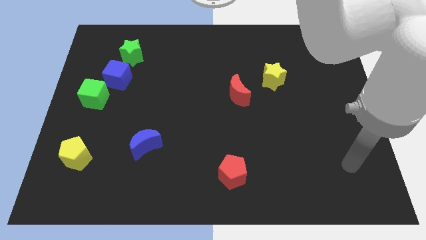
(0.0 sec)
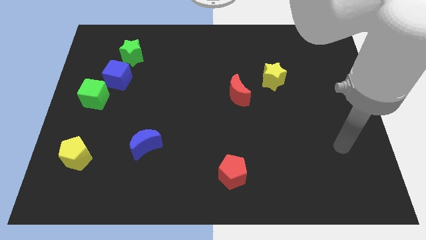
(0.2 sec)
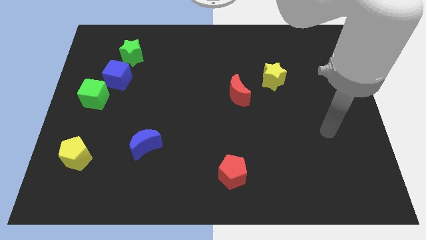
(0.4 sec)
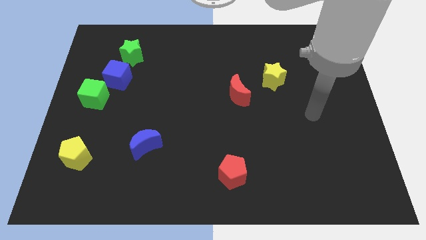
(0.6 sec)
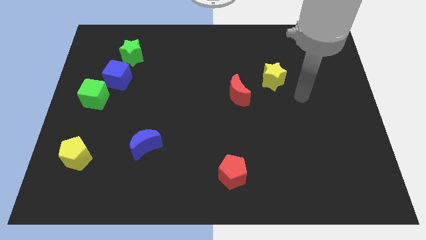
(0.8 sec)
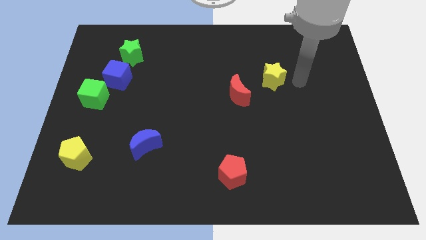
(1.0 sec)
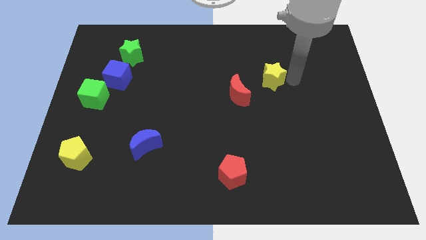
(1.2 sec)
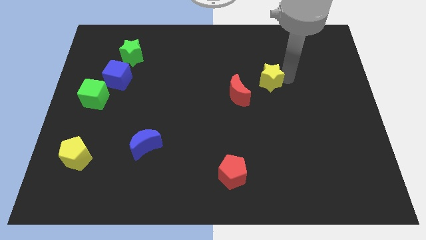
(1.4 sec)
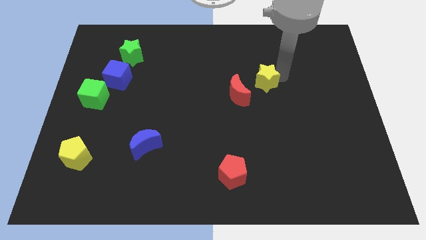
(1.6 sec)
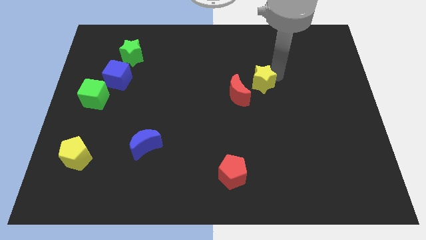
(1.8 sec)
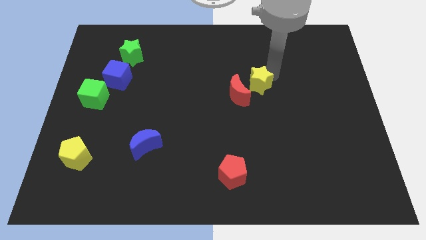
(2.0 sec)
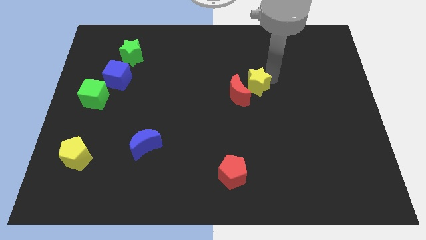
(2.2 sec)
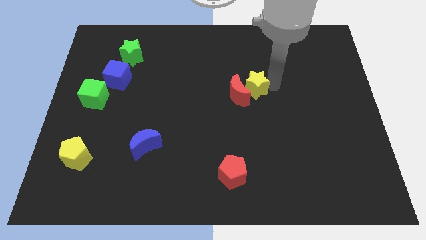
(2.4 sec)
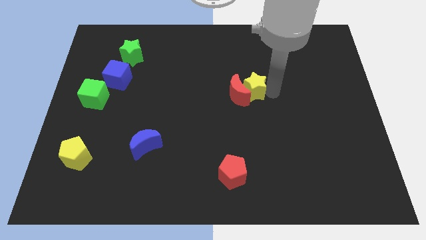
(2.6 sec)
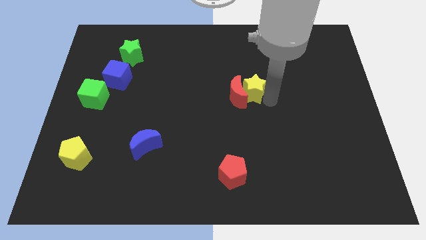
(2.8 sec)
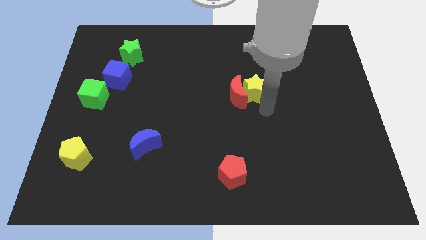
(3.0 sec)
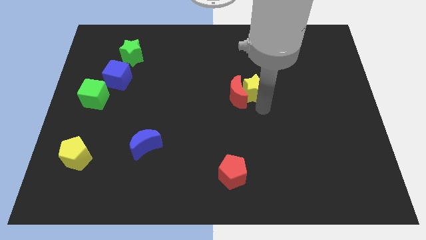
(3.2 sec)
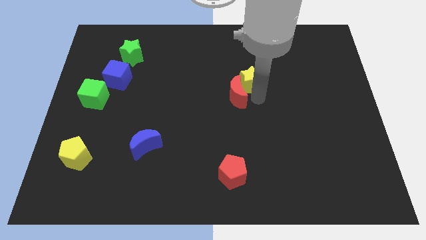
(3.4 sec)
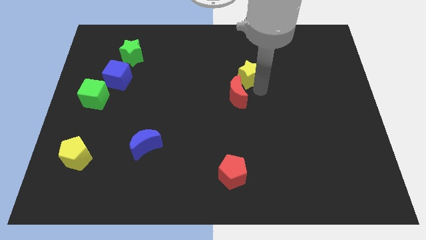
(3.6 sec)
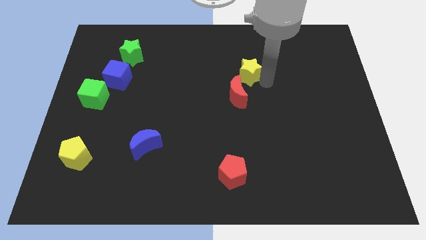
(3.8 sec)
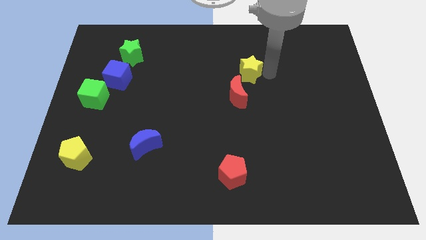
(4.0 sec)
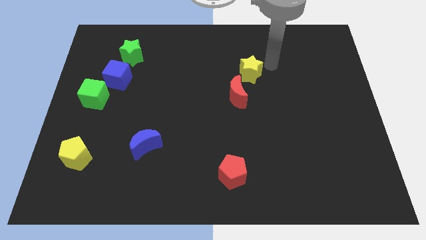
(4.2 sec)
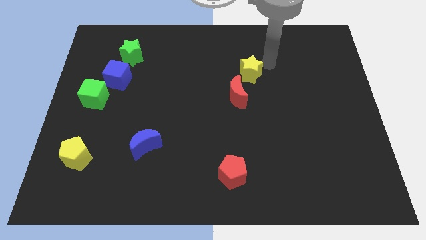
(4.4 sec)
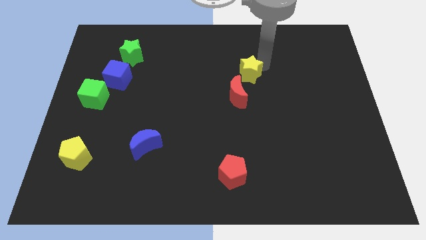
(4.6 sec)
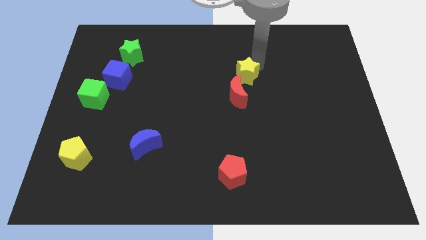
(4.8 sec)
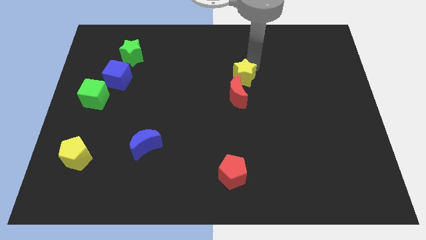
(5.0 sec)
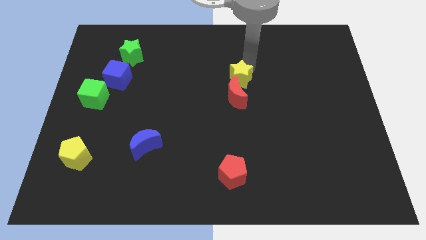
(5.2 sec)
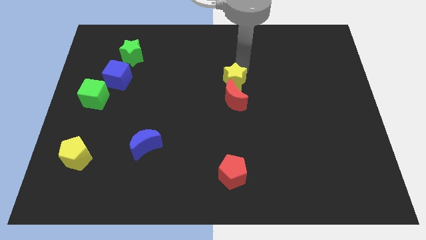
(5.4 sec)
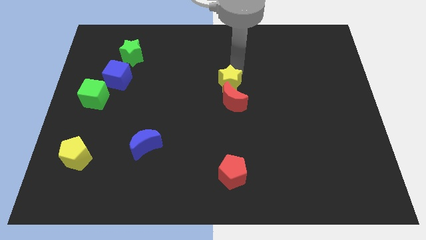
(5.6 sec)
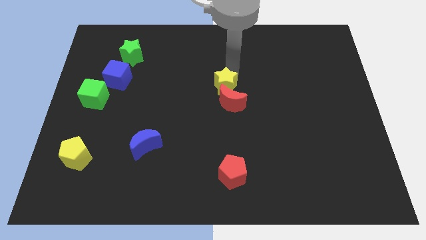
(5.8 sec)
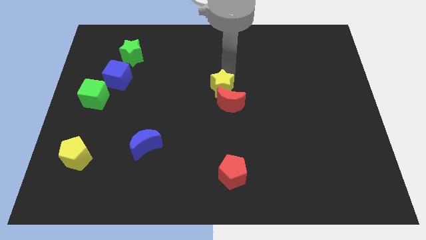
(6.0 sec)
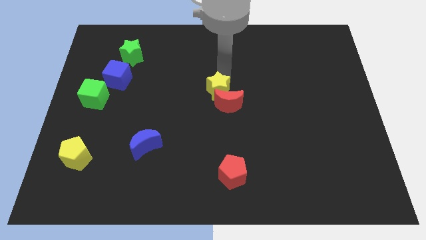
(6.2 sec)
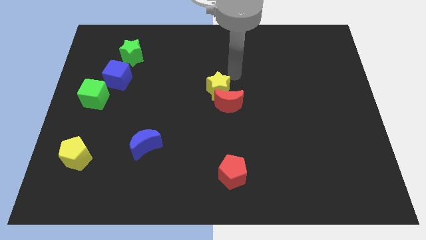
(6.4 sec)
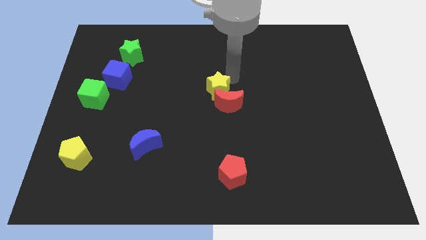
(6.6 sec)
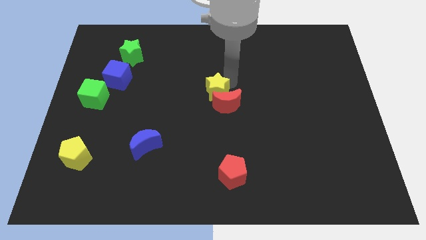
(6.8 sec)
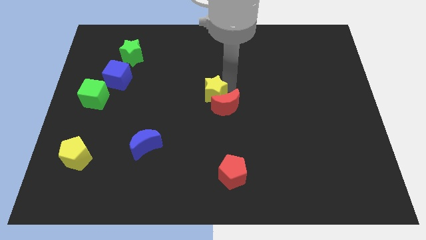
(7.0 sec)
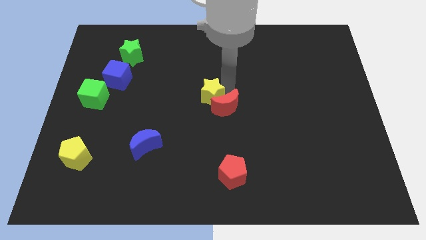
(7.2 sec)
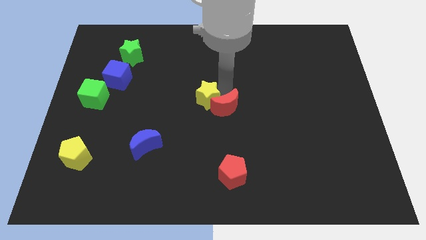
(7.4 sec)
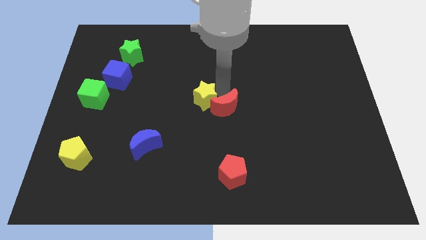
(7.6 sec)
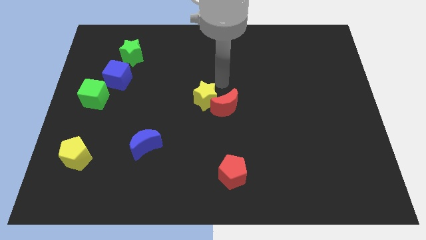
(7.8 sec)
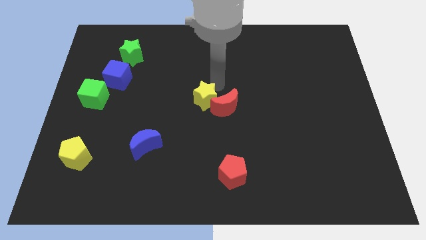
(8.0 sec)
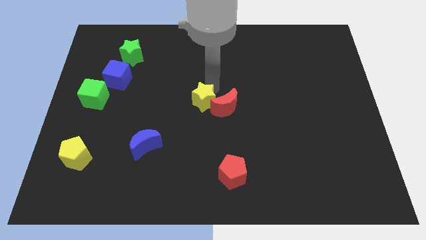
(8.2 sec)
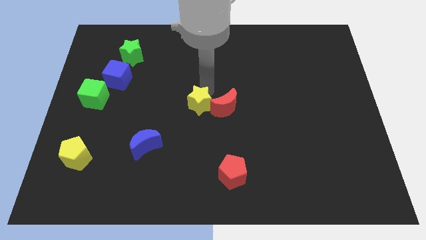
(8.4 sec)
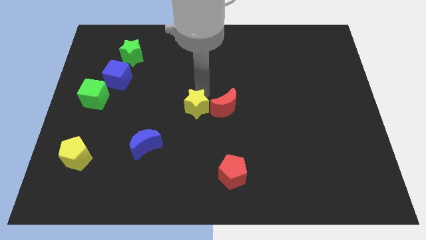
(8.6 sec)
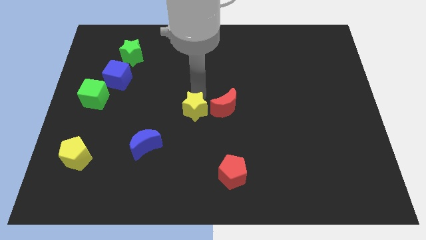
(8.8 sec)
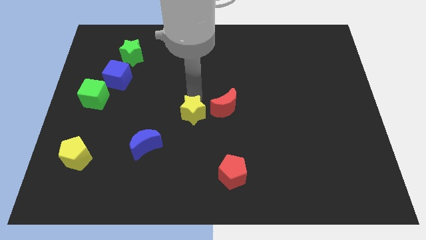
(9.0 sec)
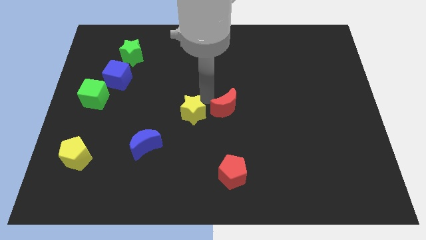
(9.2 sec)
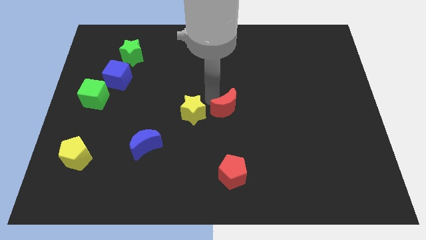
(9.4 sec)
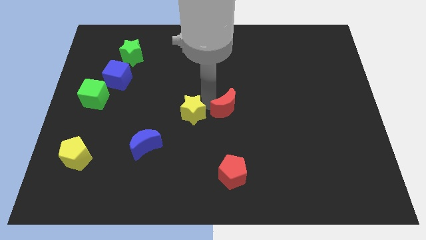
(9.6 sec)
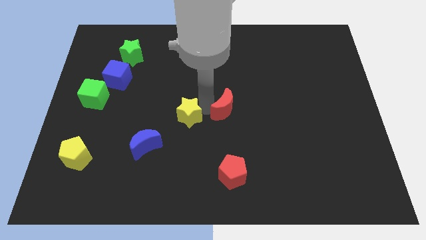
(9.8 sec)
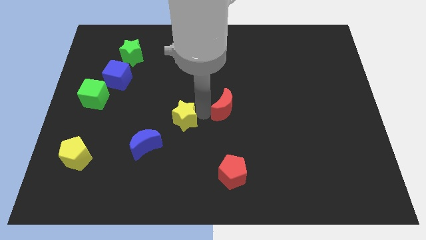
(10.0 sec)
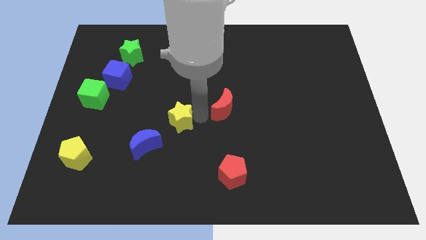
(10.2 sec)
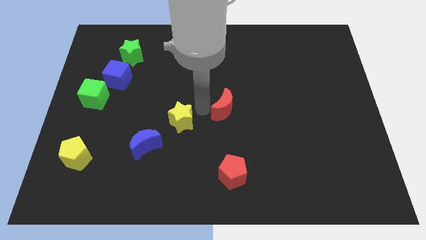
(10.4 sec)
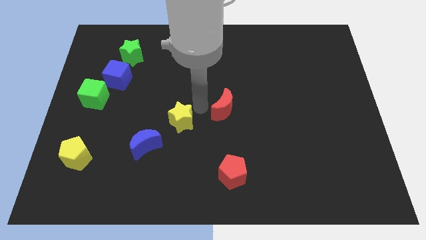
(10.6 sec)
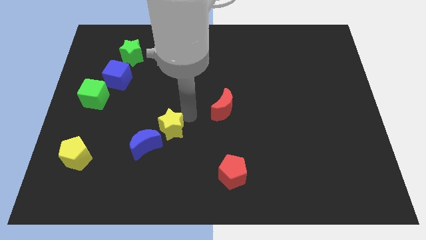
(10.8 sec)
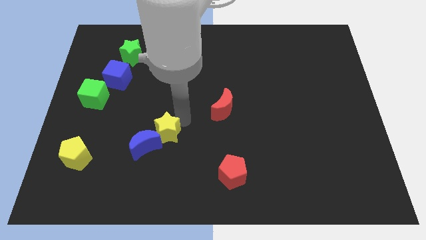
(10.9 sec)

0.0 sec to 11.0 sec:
move the yellow star towards the blue moon

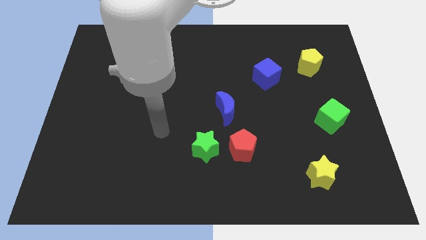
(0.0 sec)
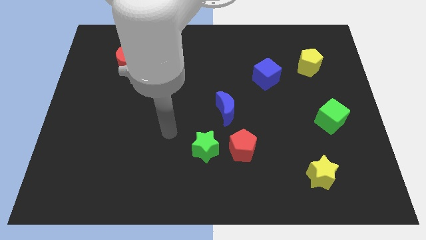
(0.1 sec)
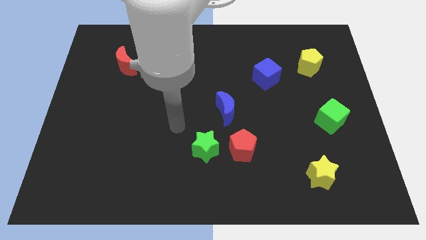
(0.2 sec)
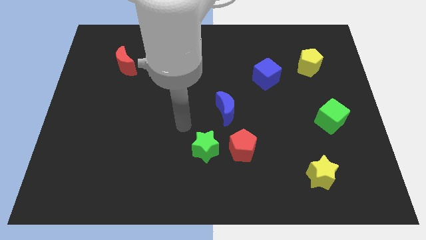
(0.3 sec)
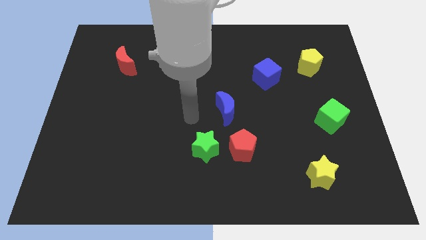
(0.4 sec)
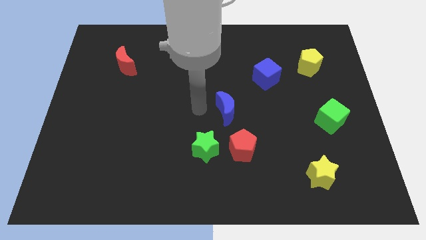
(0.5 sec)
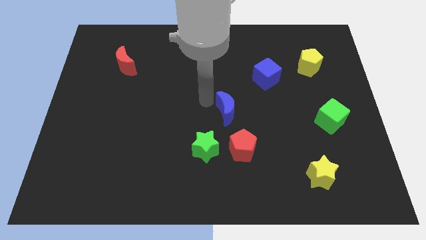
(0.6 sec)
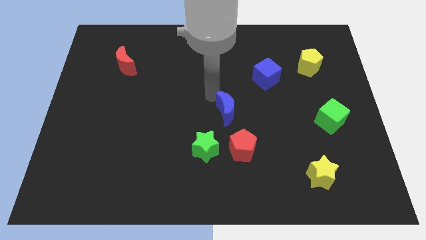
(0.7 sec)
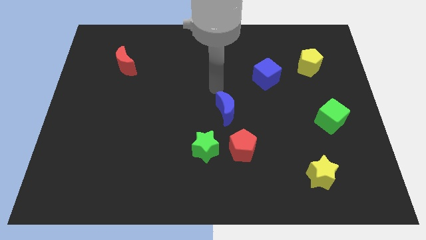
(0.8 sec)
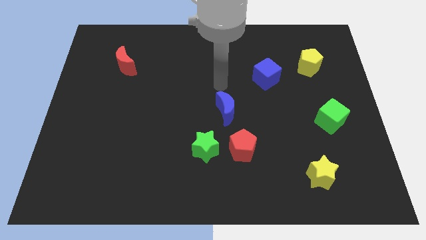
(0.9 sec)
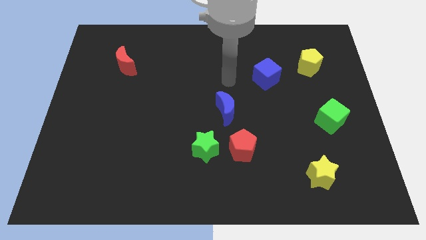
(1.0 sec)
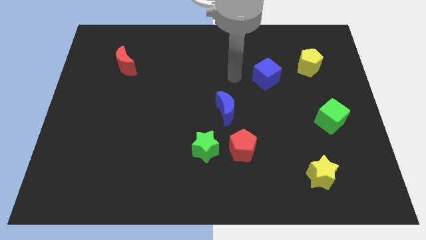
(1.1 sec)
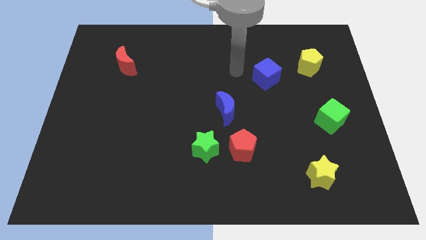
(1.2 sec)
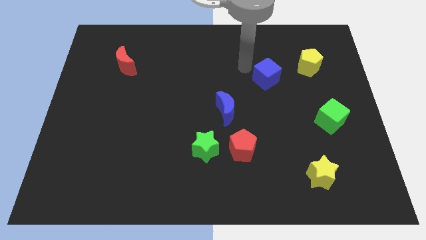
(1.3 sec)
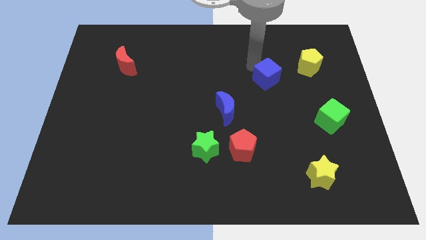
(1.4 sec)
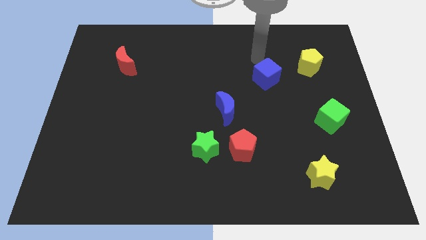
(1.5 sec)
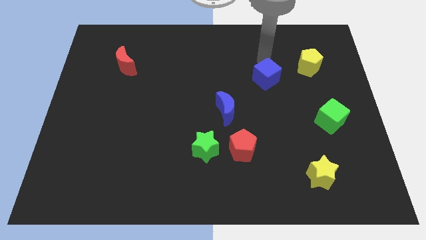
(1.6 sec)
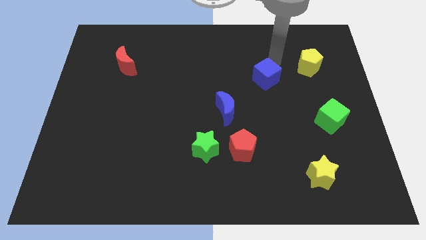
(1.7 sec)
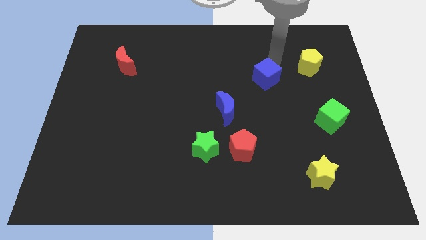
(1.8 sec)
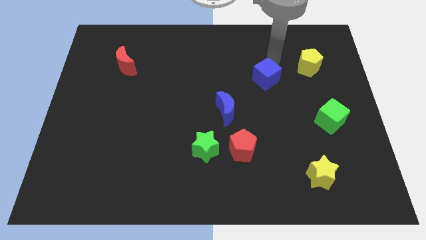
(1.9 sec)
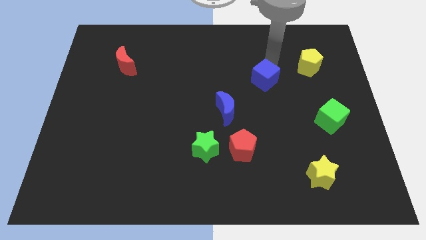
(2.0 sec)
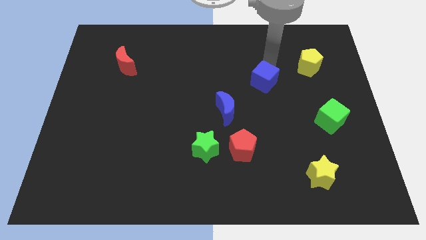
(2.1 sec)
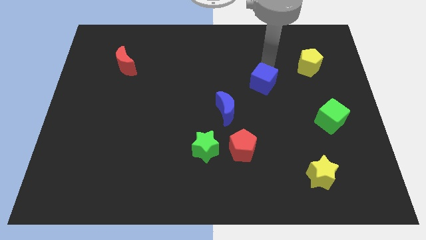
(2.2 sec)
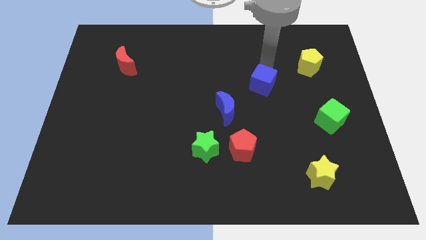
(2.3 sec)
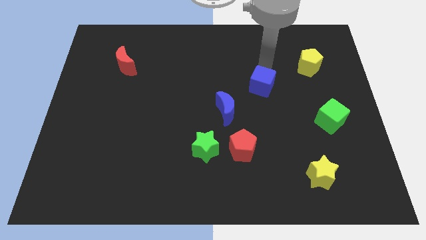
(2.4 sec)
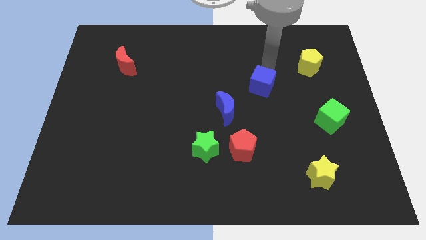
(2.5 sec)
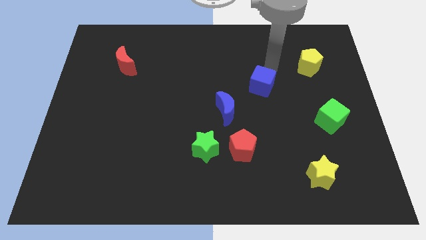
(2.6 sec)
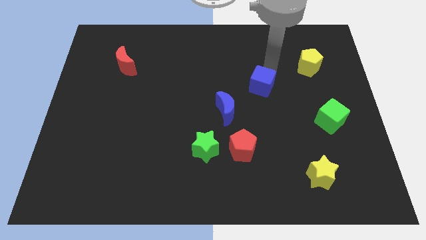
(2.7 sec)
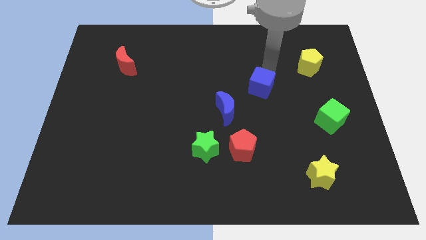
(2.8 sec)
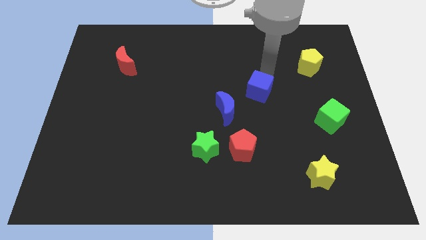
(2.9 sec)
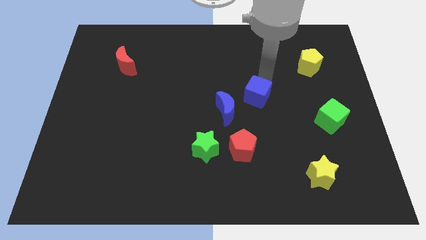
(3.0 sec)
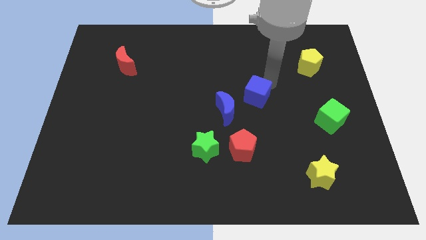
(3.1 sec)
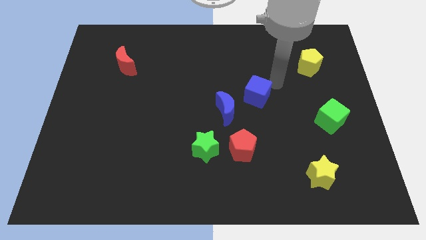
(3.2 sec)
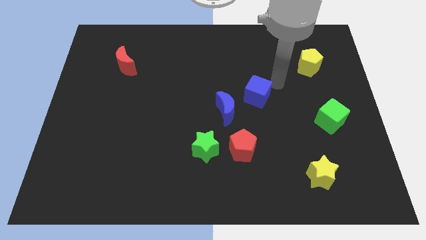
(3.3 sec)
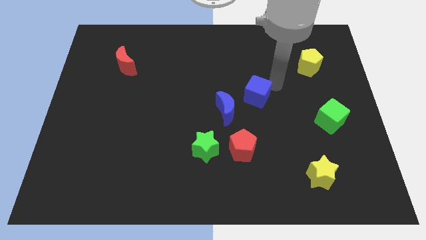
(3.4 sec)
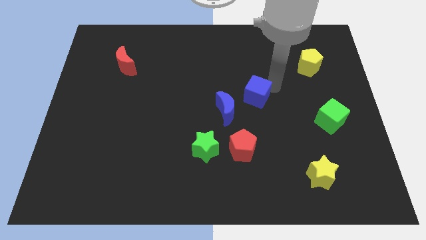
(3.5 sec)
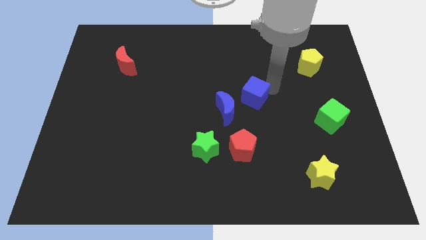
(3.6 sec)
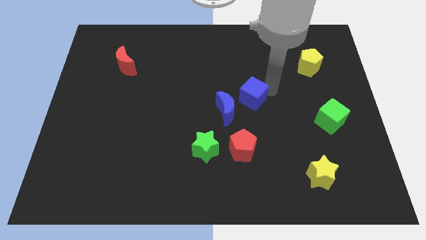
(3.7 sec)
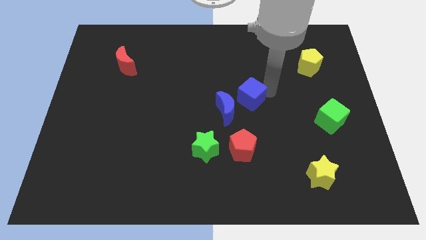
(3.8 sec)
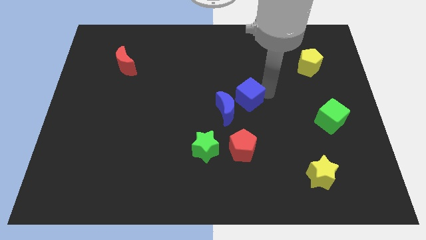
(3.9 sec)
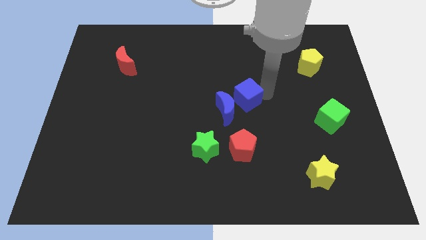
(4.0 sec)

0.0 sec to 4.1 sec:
slide the blue cube towards the blue moon
